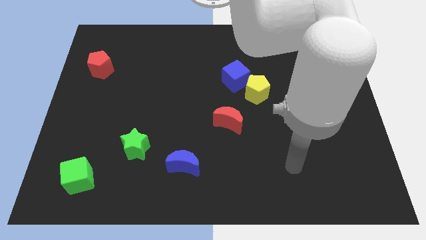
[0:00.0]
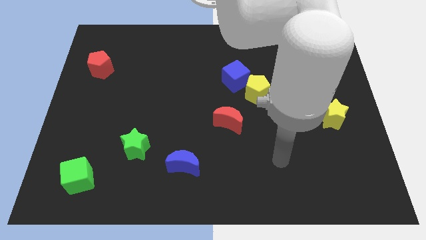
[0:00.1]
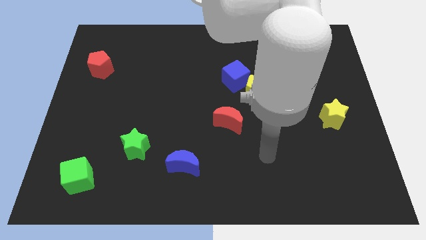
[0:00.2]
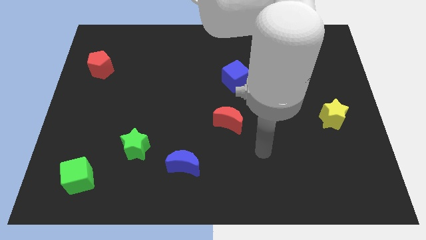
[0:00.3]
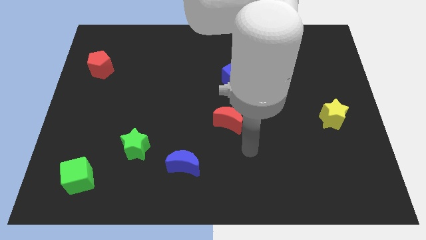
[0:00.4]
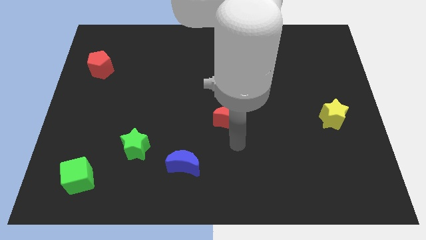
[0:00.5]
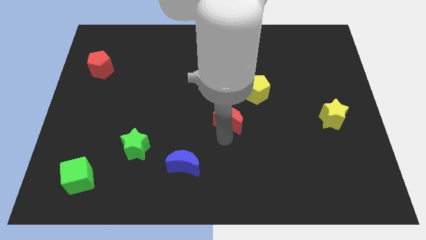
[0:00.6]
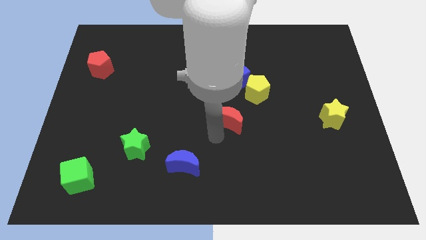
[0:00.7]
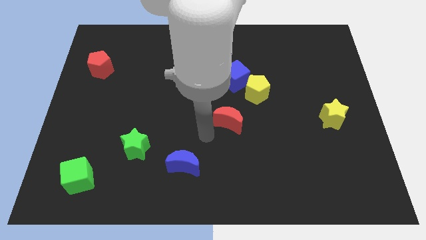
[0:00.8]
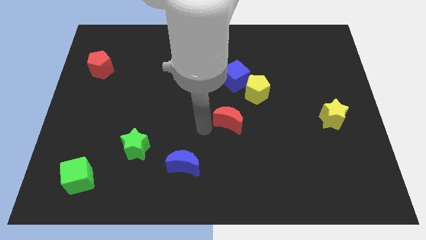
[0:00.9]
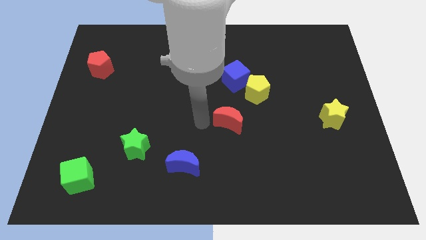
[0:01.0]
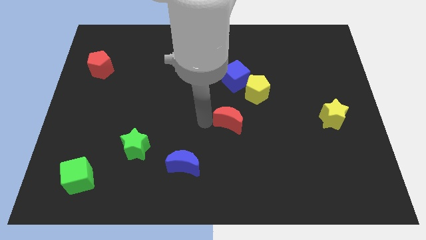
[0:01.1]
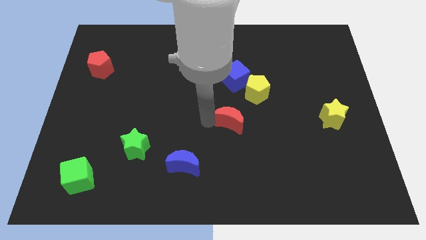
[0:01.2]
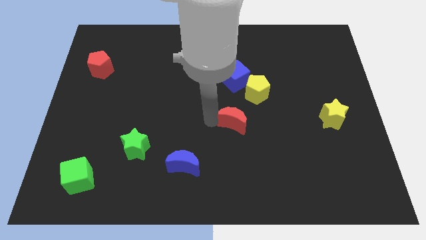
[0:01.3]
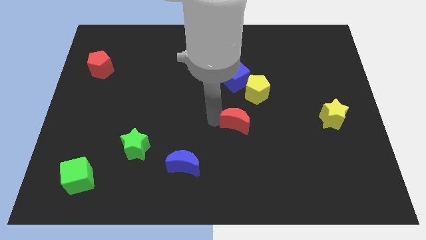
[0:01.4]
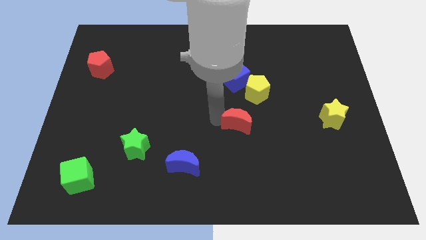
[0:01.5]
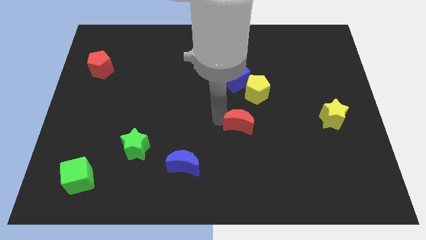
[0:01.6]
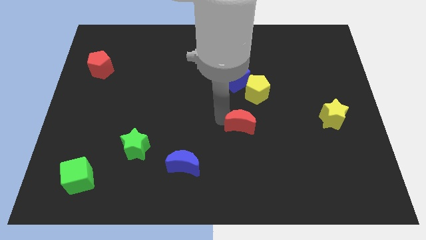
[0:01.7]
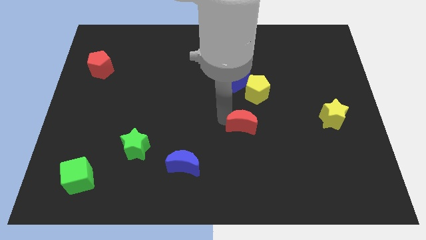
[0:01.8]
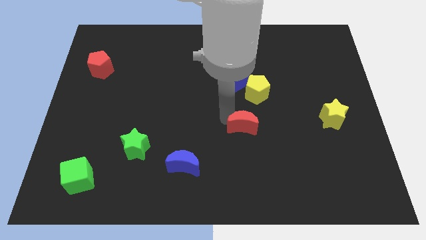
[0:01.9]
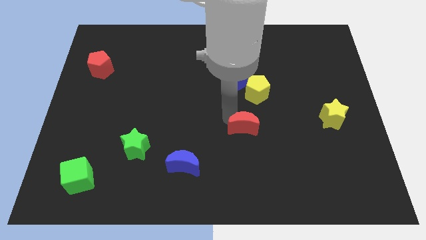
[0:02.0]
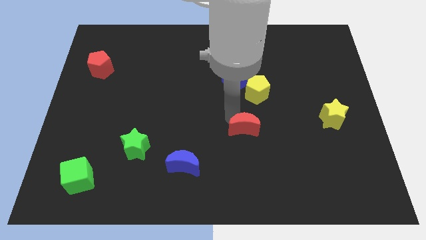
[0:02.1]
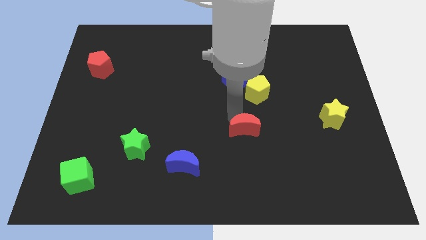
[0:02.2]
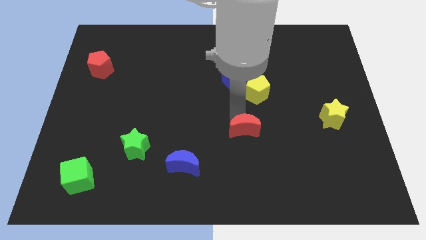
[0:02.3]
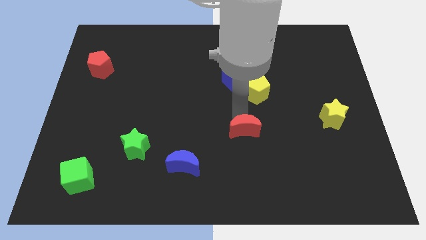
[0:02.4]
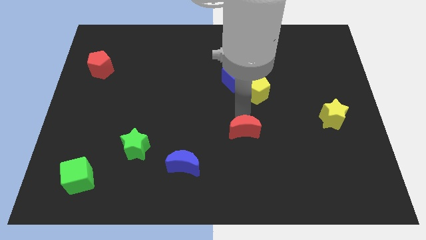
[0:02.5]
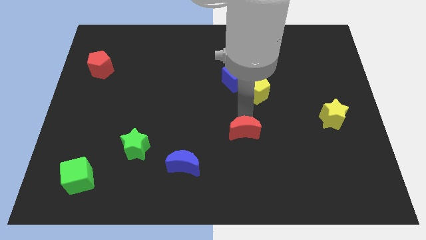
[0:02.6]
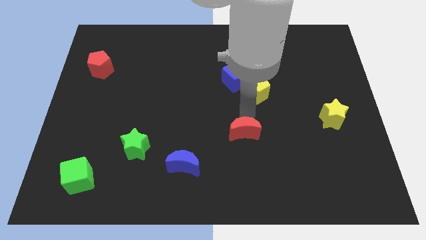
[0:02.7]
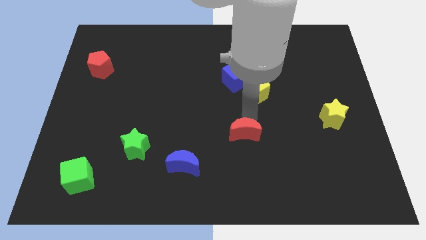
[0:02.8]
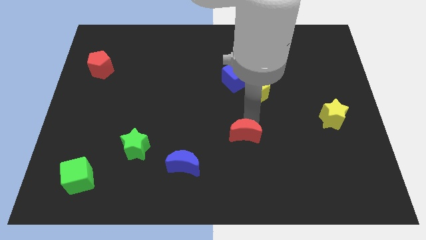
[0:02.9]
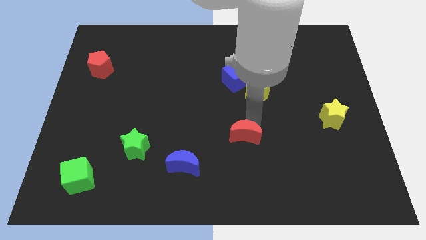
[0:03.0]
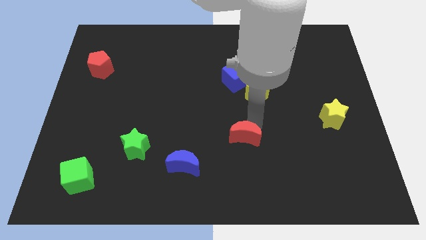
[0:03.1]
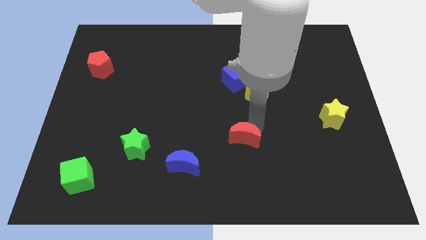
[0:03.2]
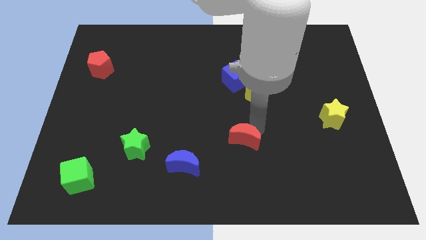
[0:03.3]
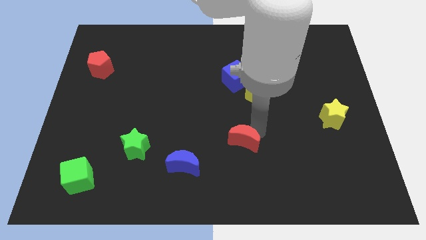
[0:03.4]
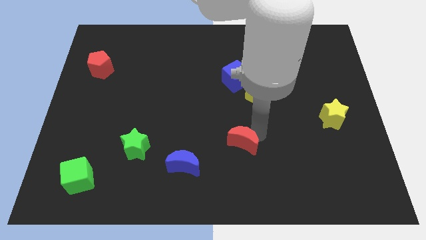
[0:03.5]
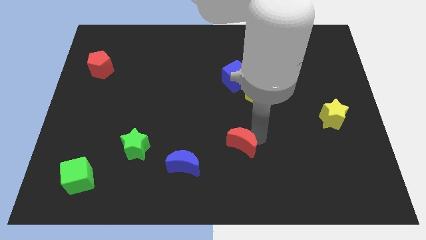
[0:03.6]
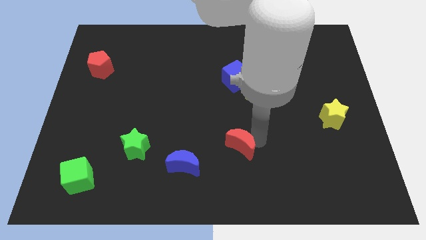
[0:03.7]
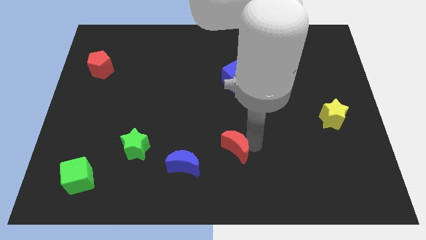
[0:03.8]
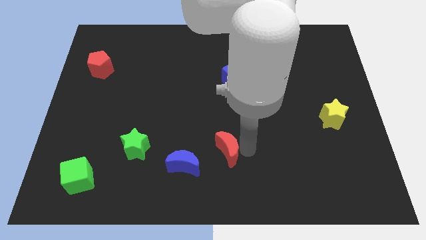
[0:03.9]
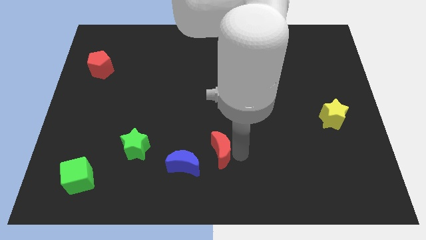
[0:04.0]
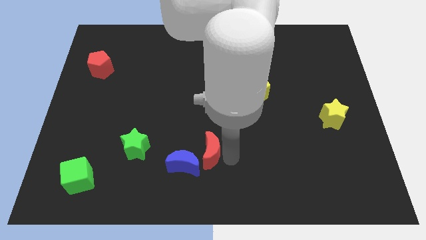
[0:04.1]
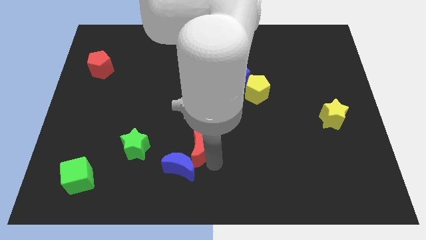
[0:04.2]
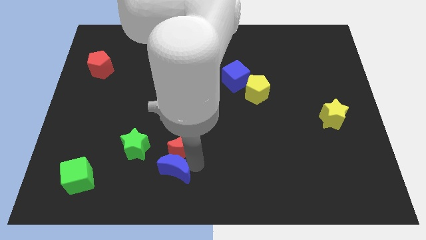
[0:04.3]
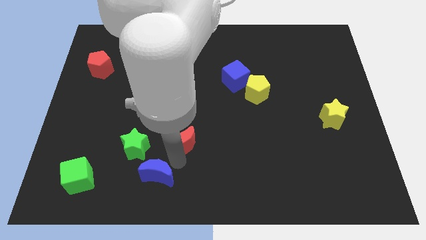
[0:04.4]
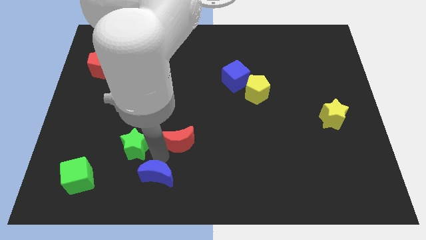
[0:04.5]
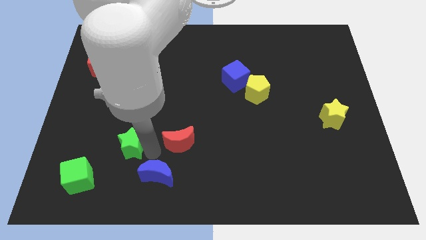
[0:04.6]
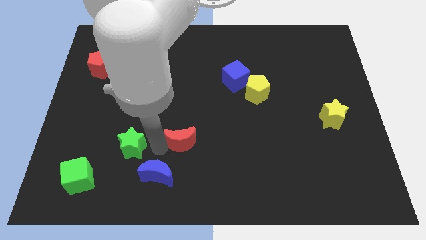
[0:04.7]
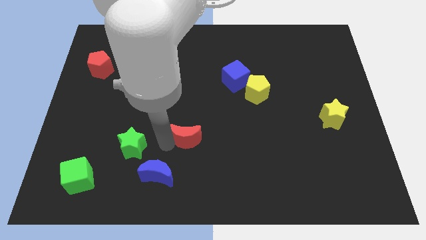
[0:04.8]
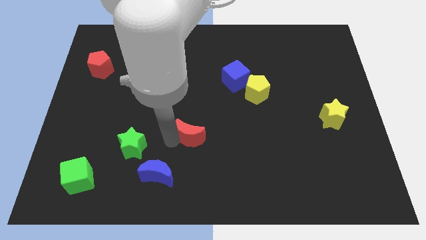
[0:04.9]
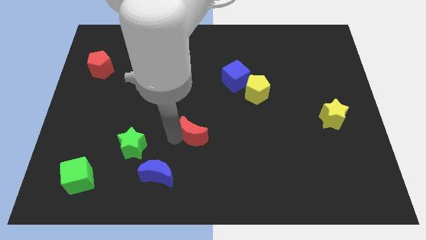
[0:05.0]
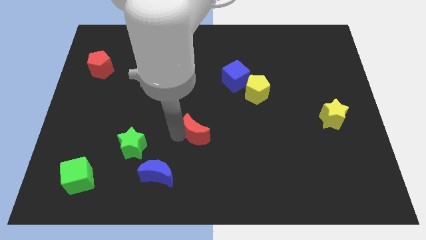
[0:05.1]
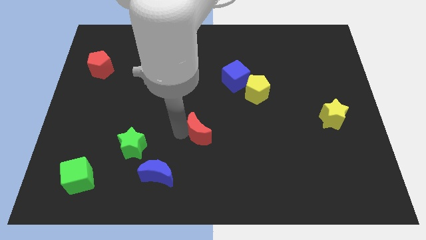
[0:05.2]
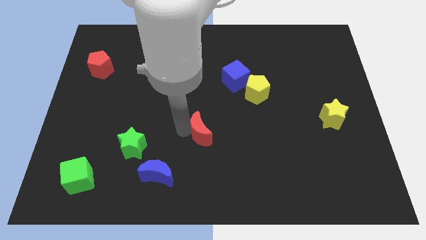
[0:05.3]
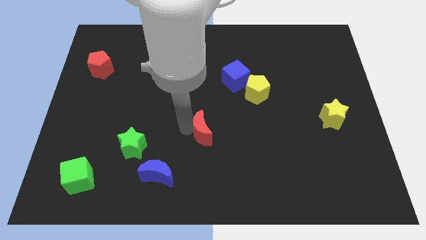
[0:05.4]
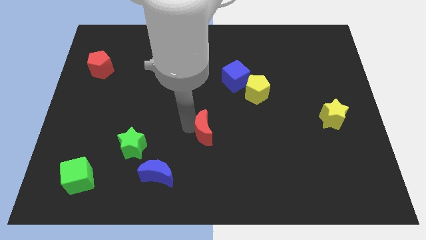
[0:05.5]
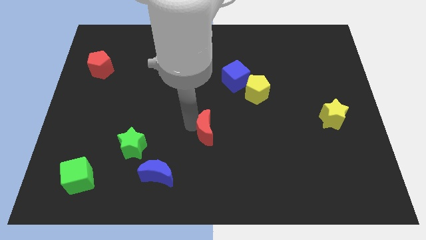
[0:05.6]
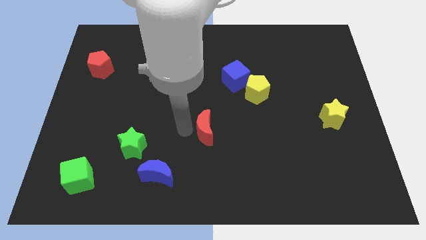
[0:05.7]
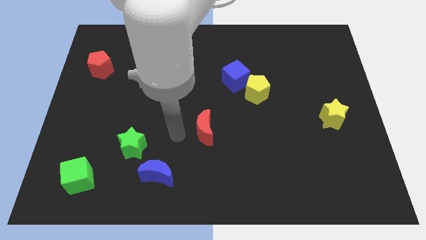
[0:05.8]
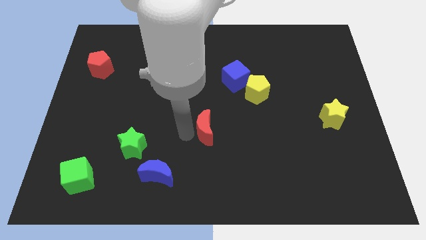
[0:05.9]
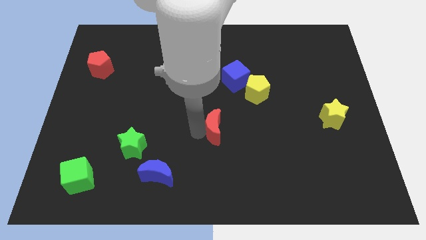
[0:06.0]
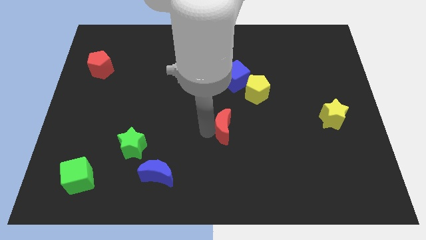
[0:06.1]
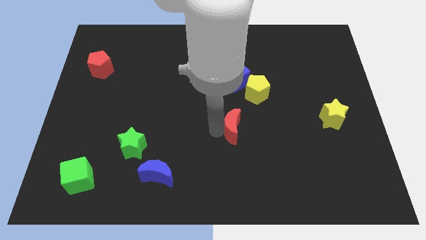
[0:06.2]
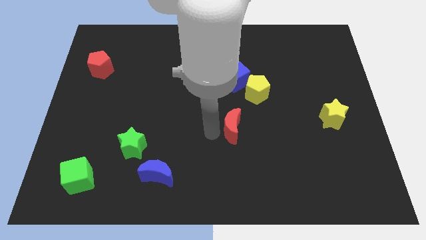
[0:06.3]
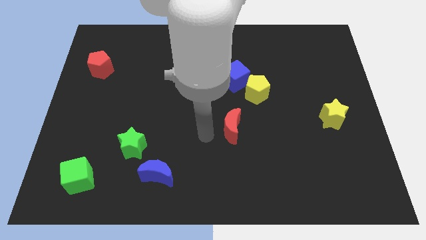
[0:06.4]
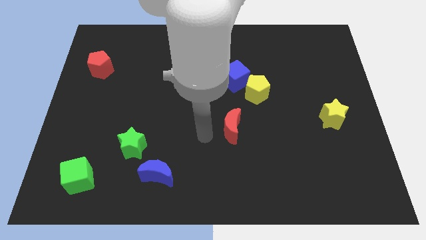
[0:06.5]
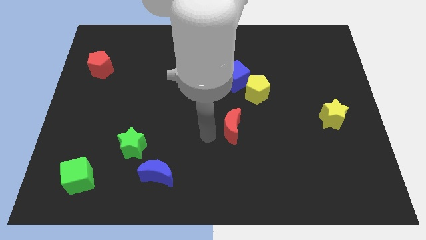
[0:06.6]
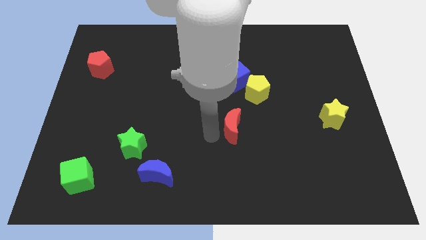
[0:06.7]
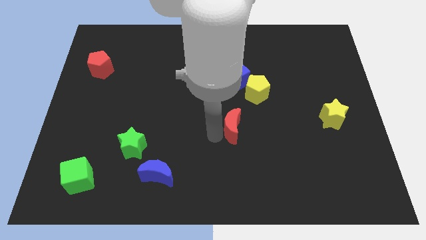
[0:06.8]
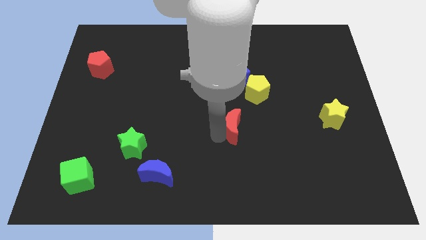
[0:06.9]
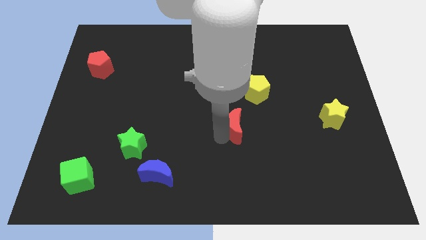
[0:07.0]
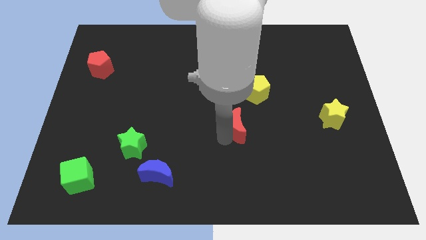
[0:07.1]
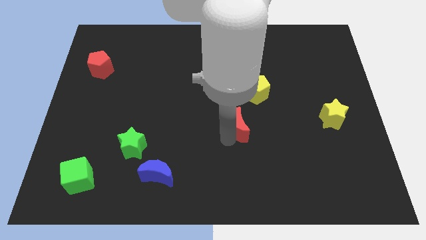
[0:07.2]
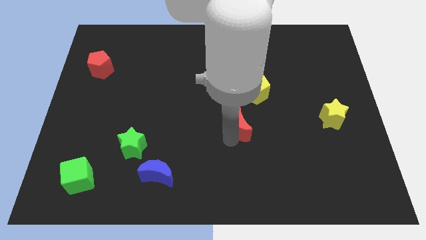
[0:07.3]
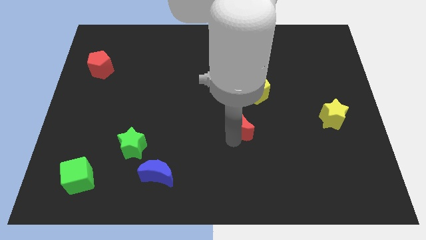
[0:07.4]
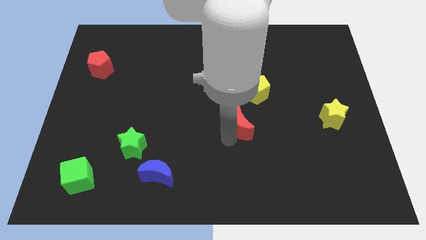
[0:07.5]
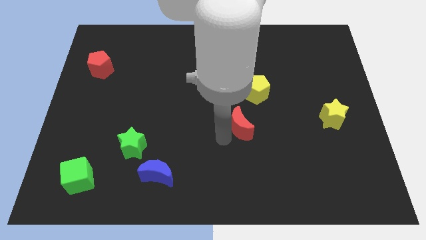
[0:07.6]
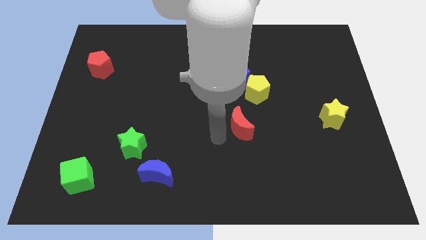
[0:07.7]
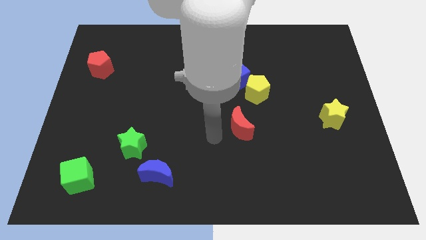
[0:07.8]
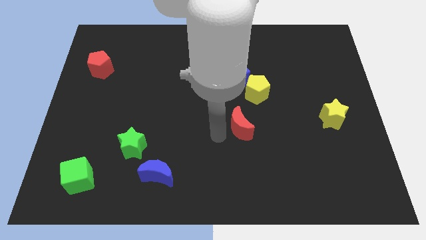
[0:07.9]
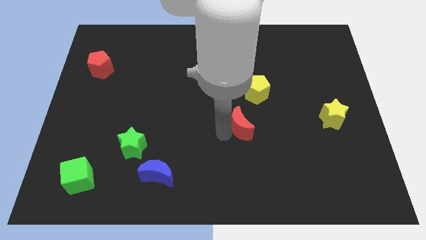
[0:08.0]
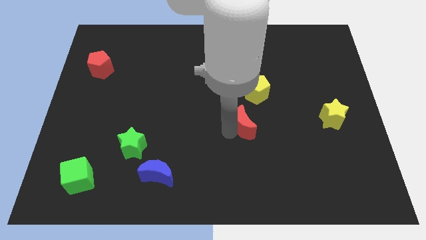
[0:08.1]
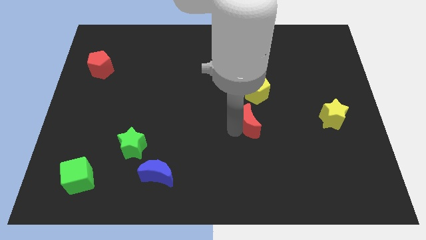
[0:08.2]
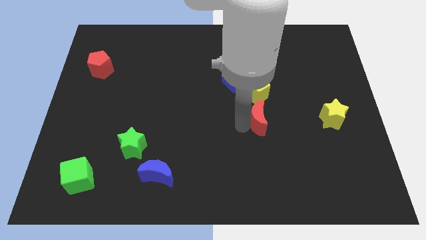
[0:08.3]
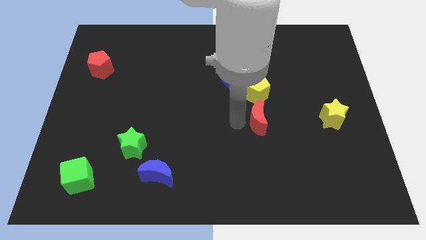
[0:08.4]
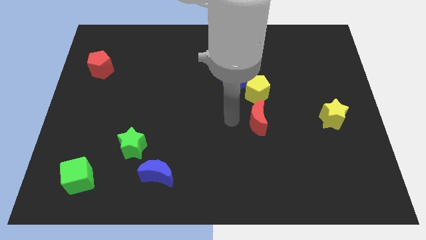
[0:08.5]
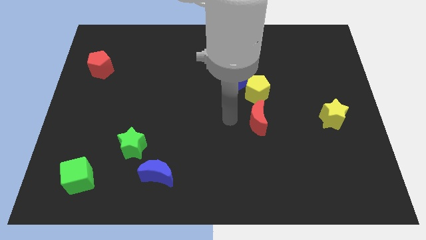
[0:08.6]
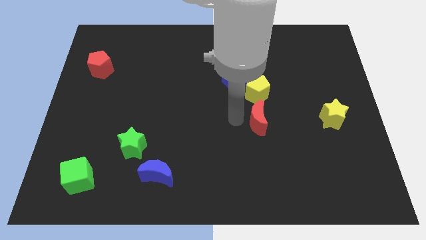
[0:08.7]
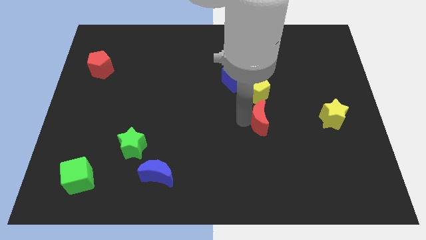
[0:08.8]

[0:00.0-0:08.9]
slide the red moon a little right
